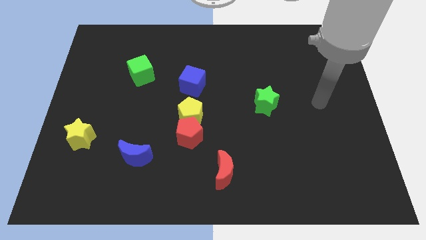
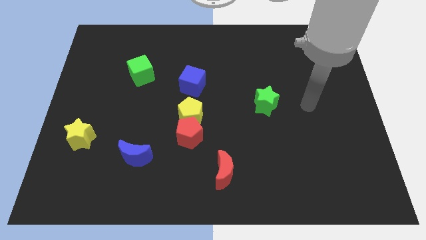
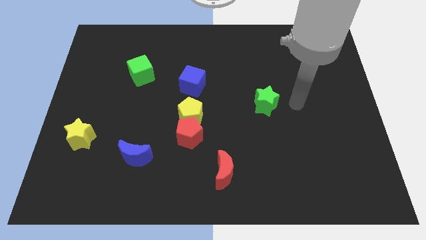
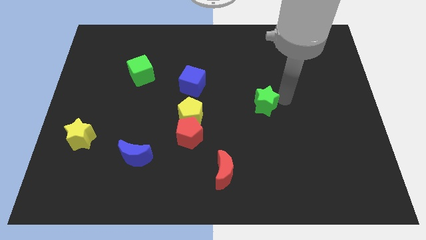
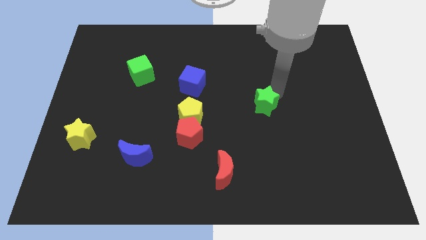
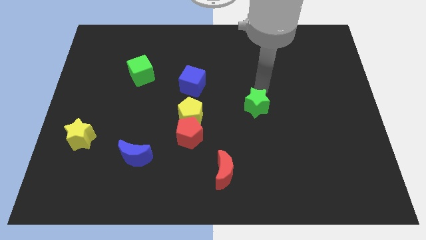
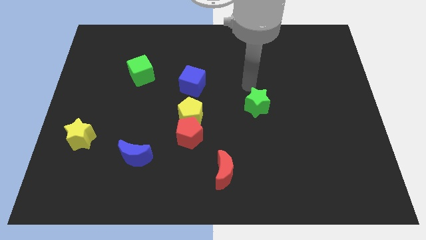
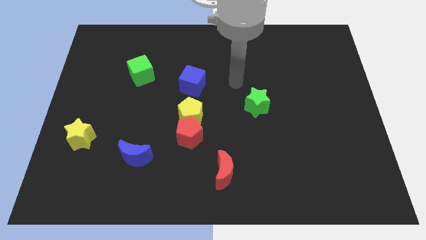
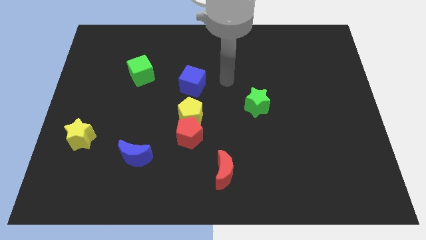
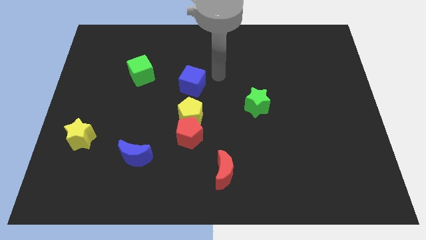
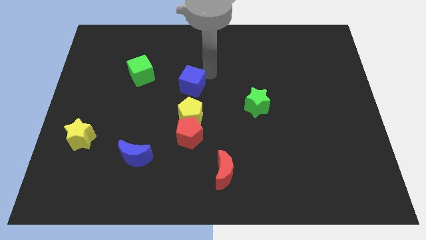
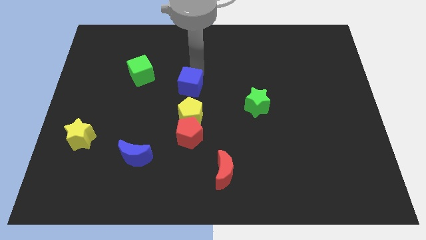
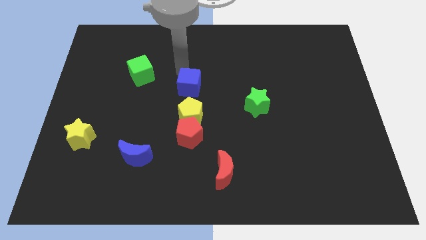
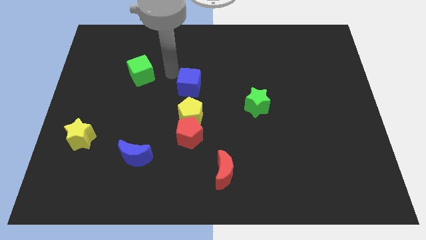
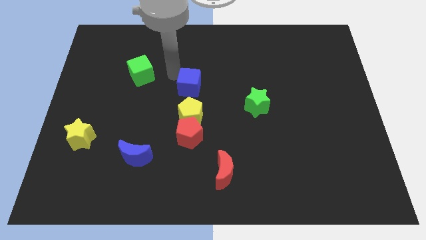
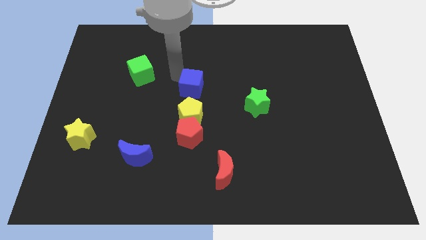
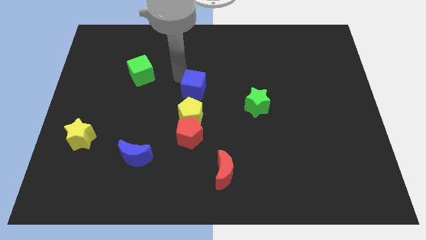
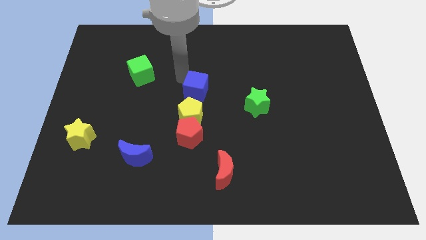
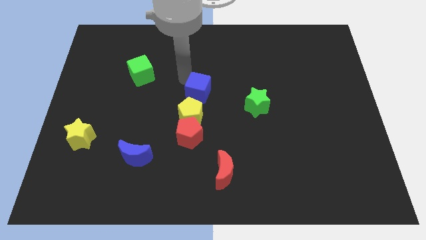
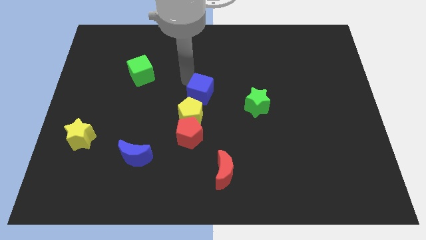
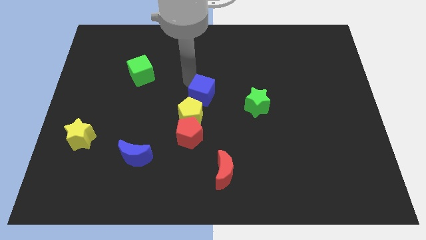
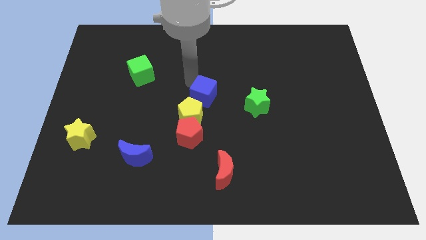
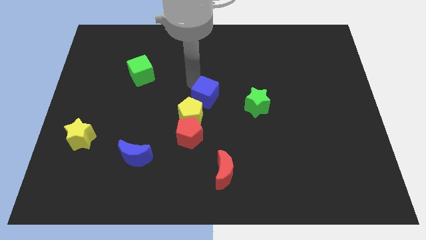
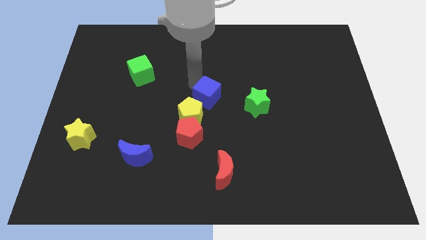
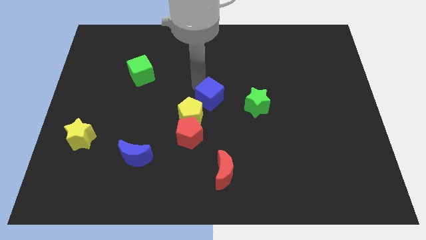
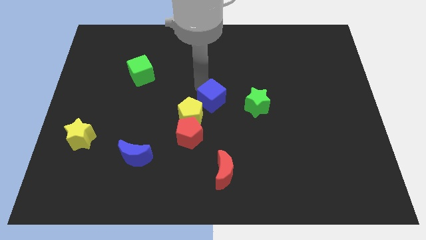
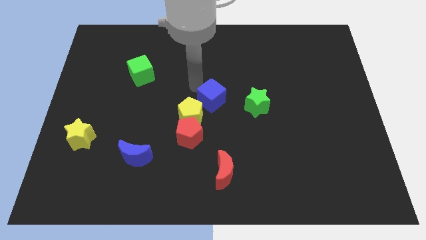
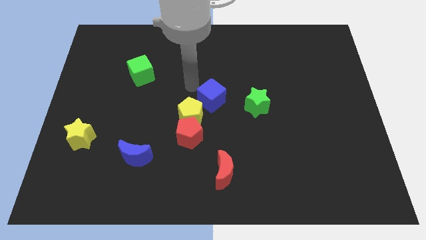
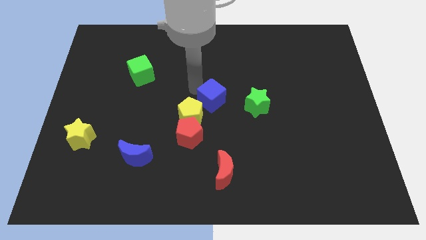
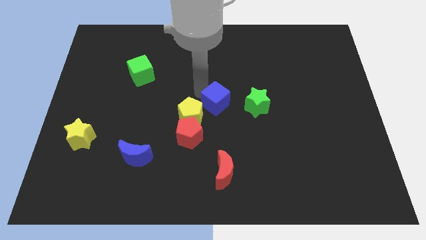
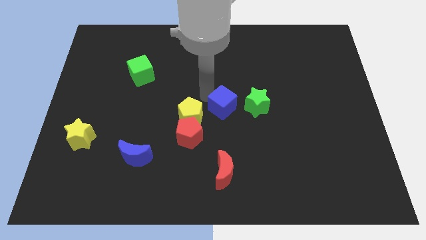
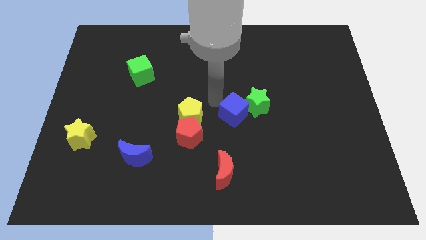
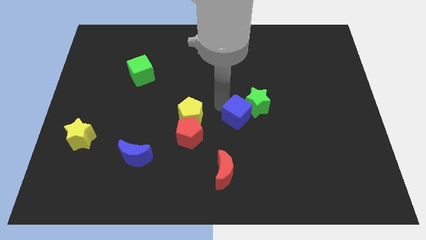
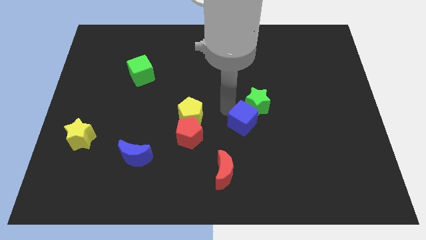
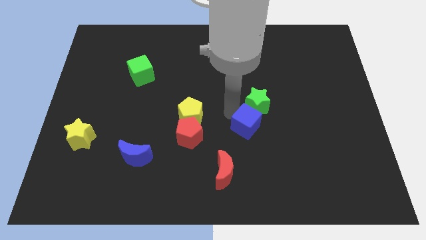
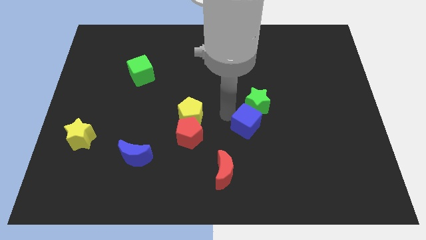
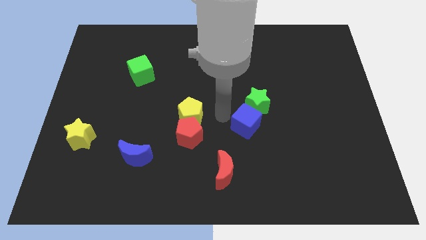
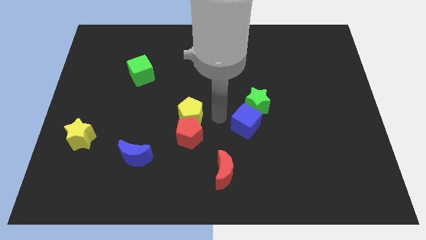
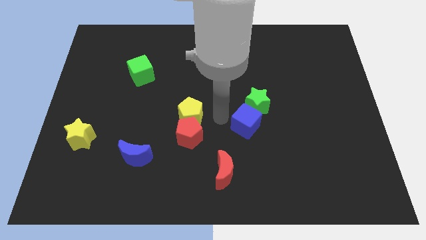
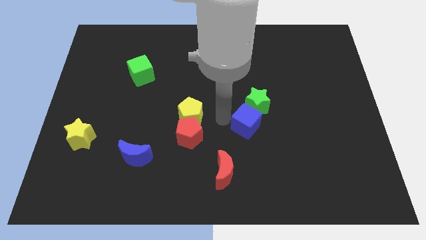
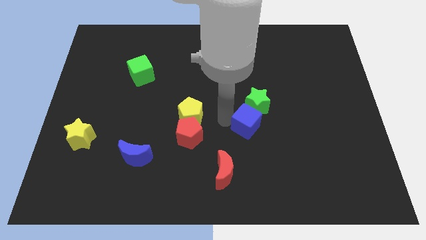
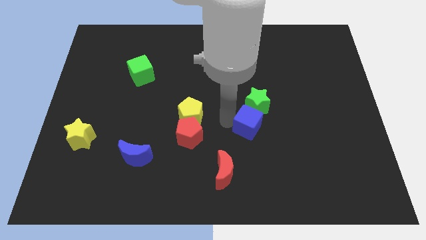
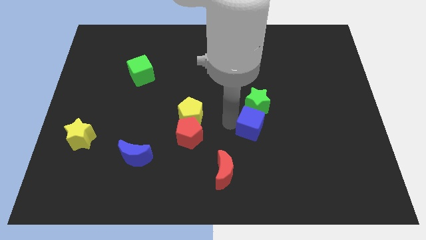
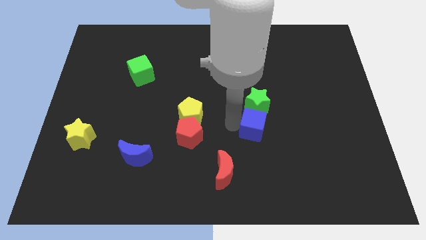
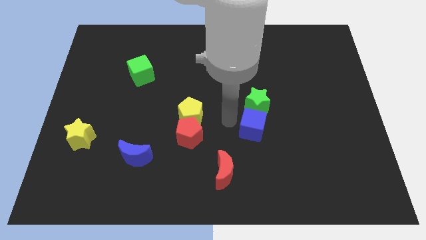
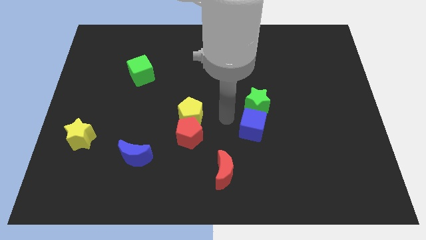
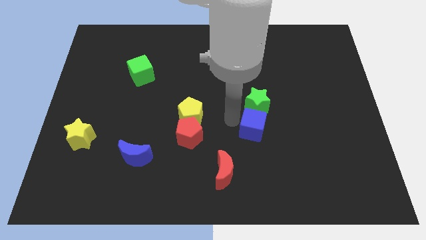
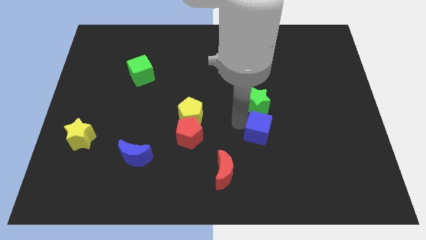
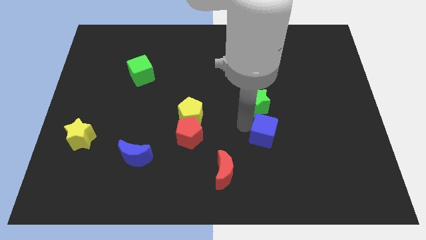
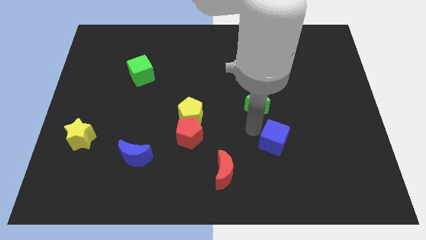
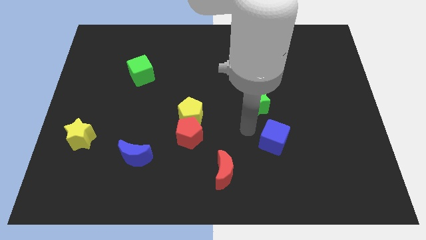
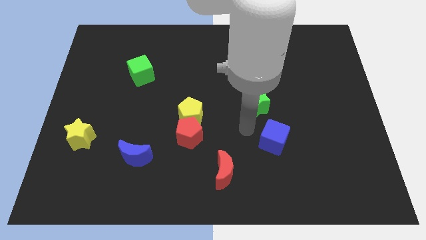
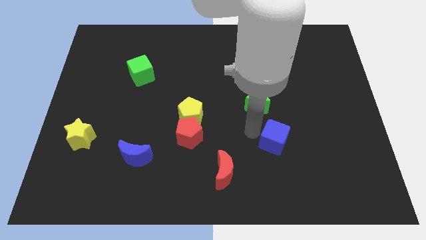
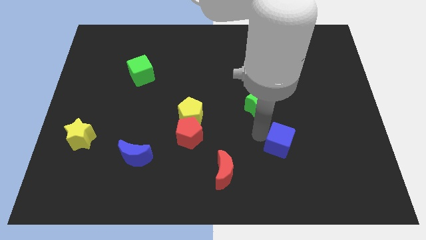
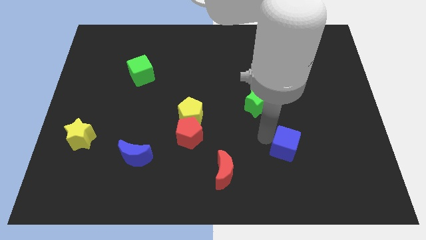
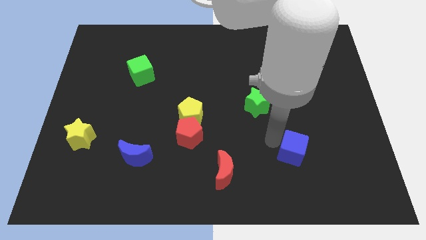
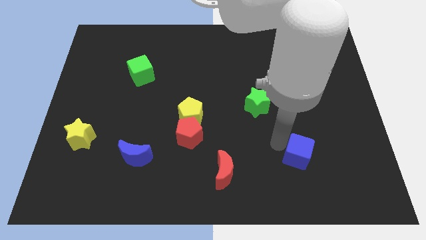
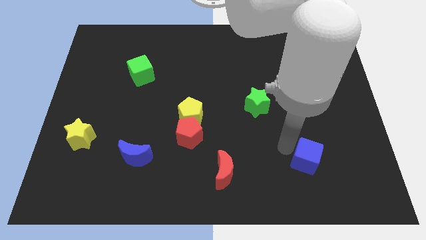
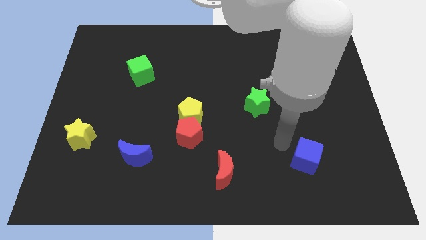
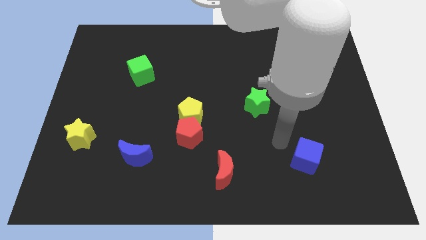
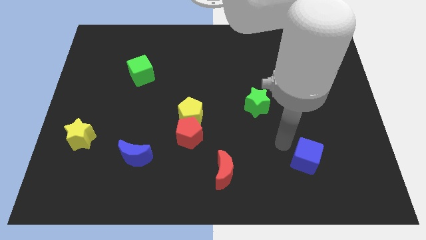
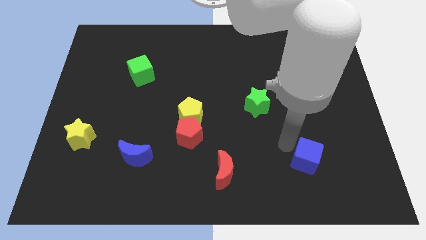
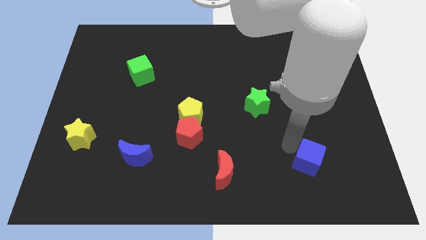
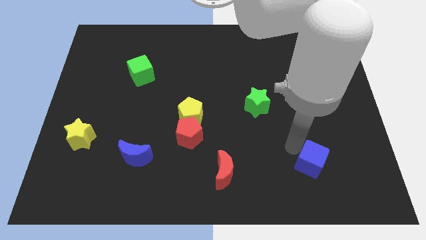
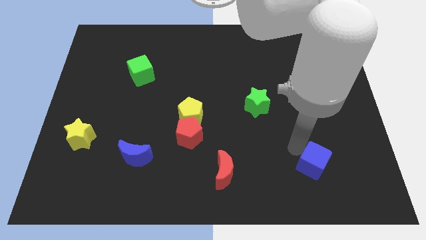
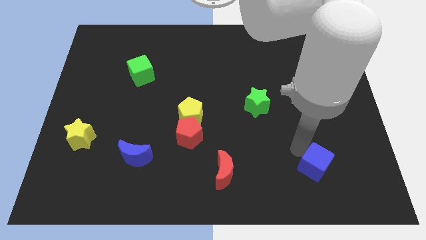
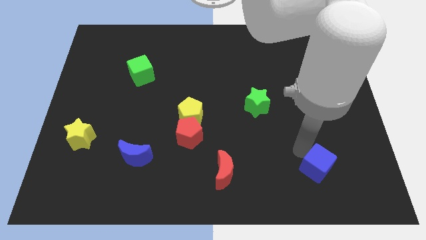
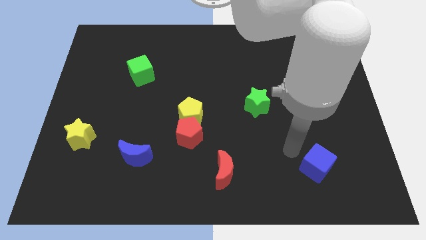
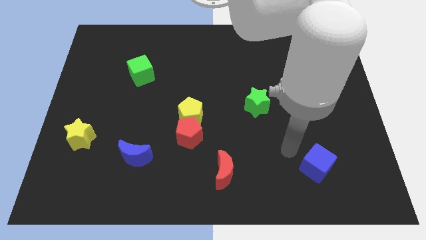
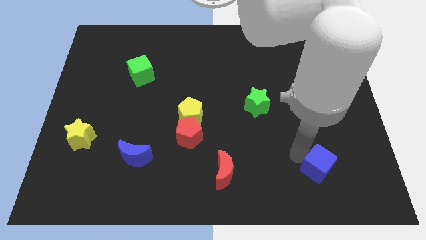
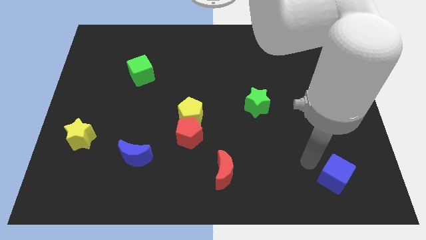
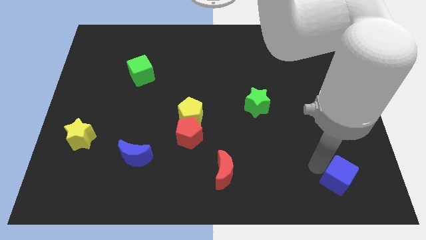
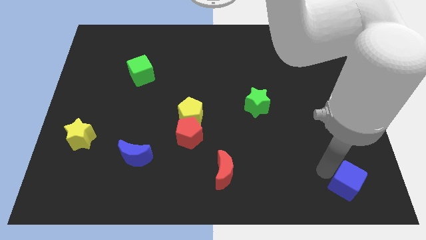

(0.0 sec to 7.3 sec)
move the blue cube to the bottom right
